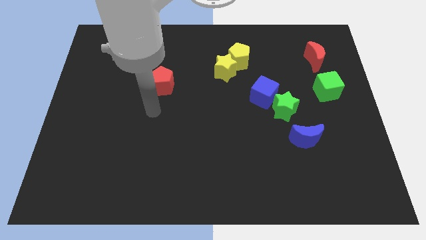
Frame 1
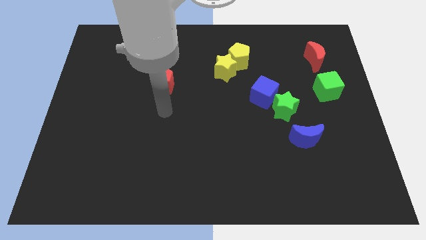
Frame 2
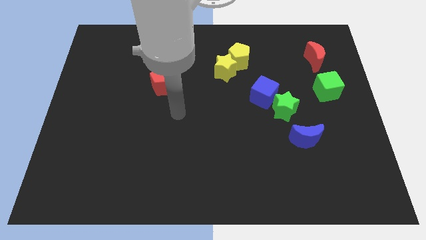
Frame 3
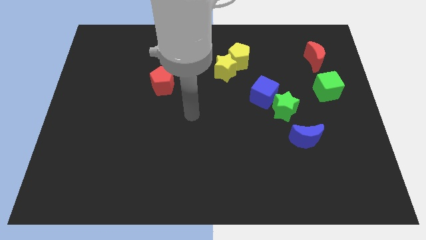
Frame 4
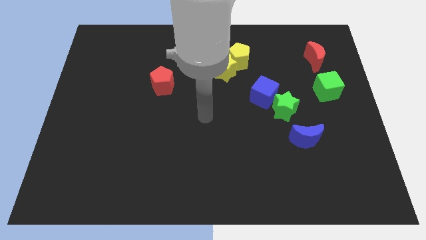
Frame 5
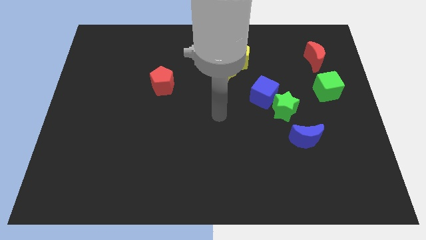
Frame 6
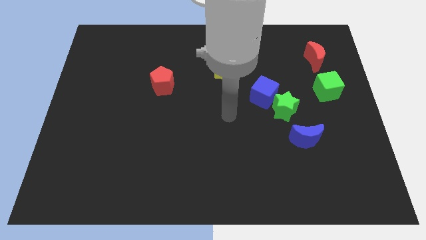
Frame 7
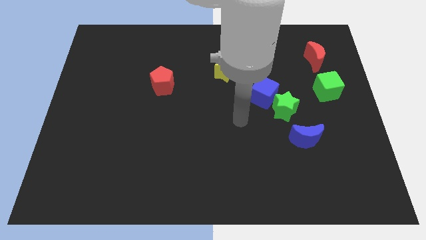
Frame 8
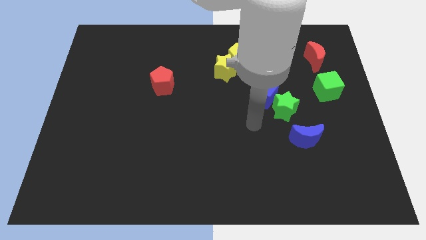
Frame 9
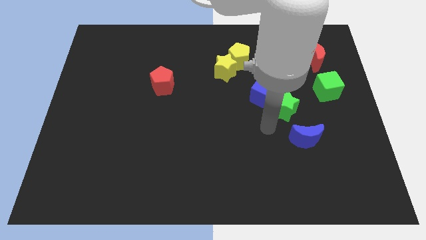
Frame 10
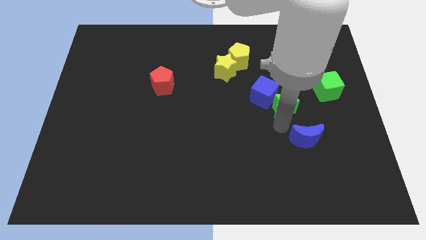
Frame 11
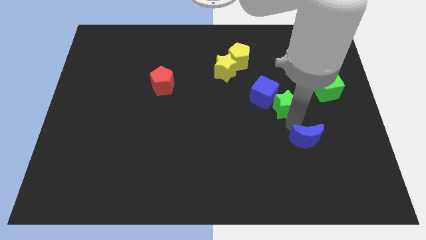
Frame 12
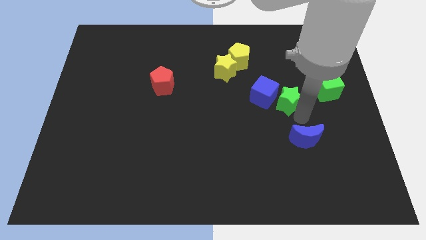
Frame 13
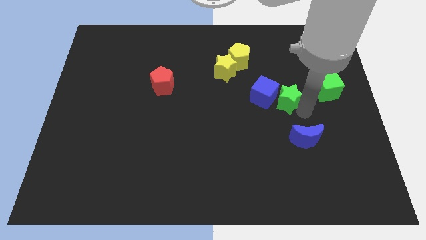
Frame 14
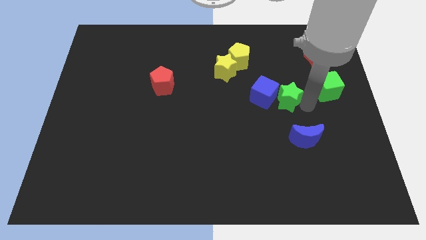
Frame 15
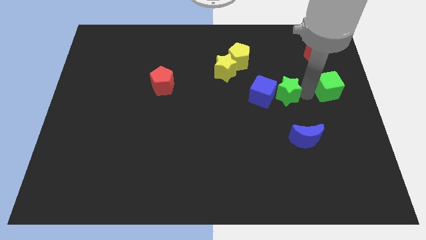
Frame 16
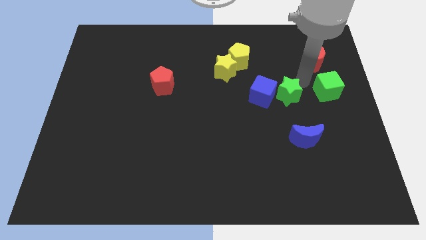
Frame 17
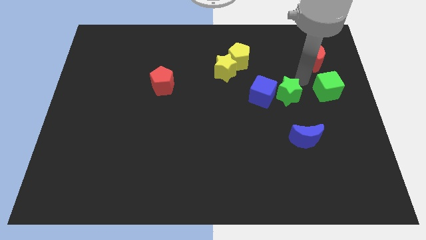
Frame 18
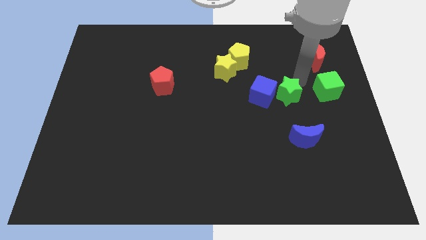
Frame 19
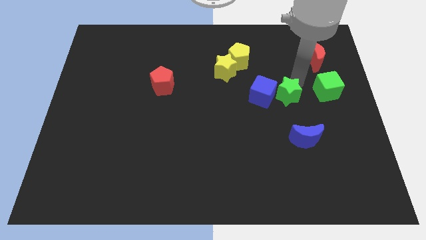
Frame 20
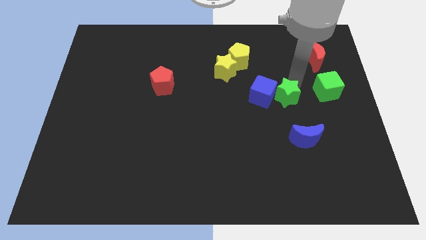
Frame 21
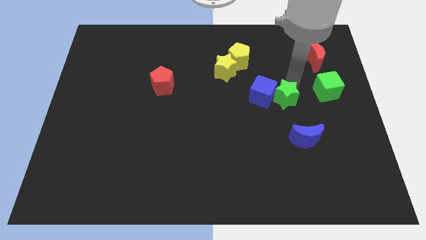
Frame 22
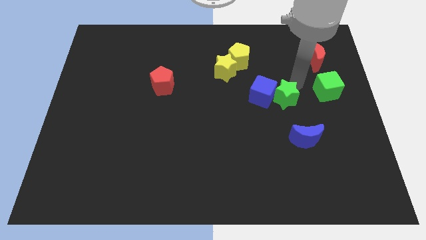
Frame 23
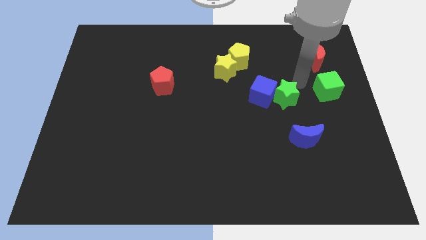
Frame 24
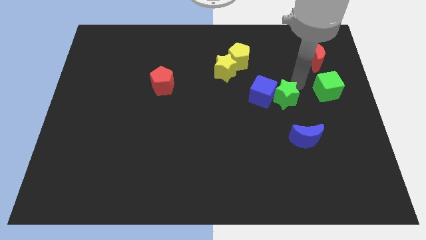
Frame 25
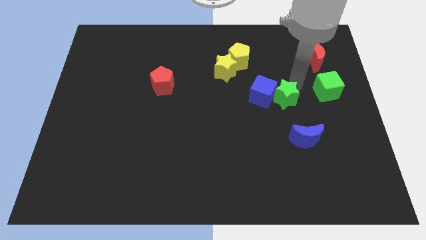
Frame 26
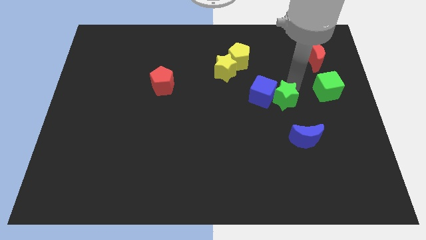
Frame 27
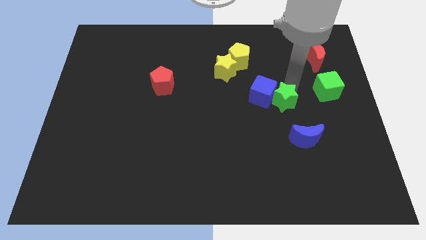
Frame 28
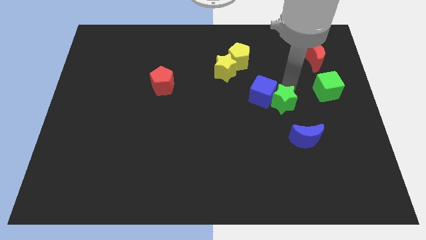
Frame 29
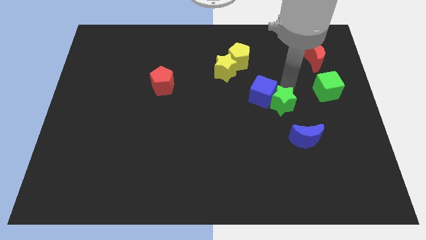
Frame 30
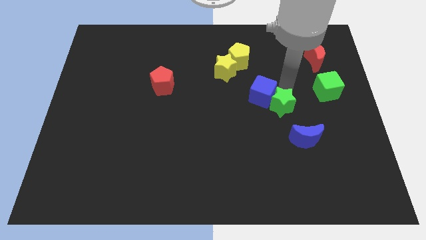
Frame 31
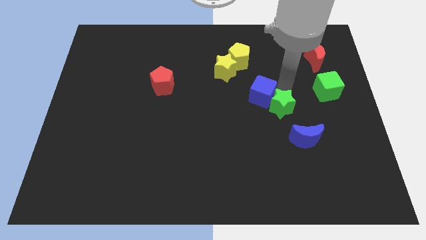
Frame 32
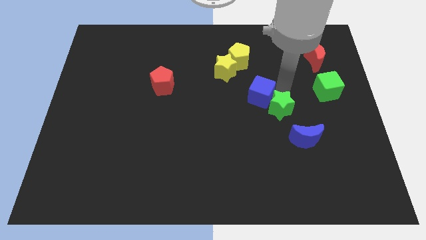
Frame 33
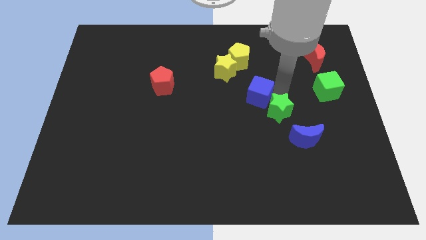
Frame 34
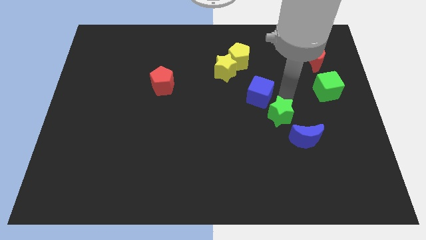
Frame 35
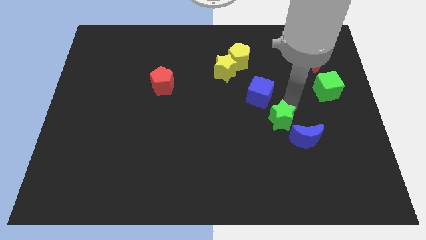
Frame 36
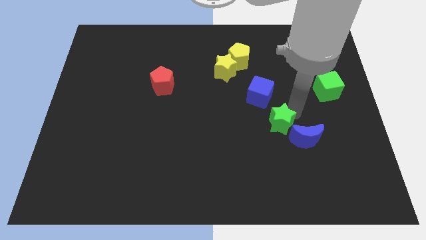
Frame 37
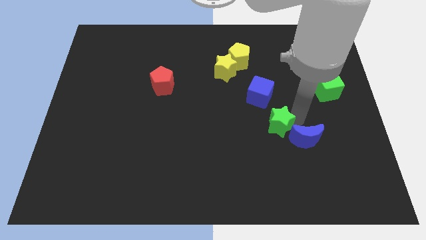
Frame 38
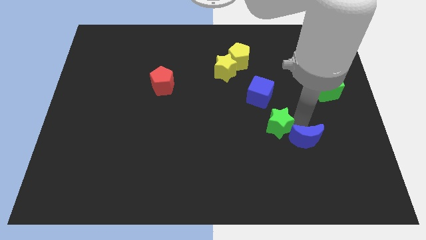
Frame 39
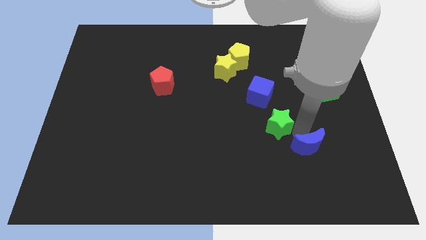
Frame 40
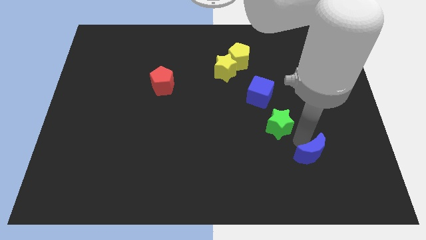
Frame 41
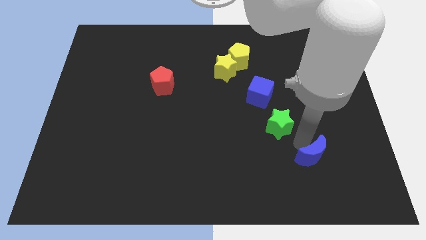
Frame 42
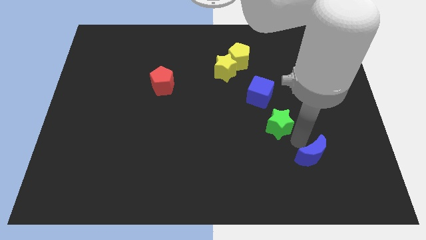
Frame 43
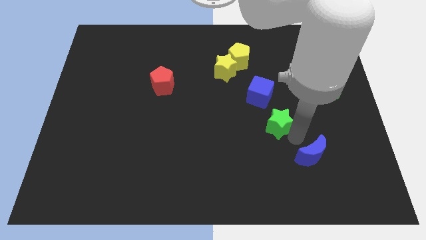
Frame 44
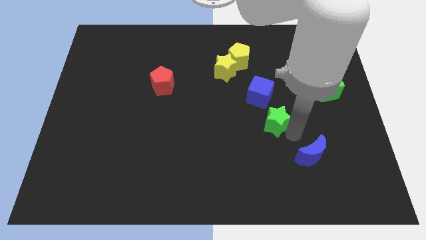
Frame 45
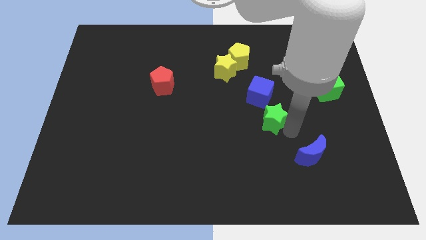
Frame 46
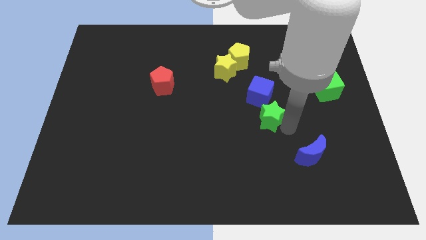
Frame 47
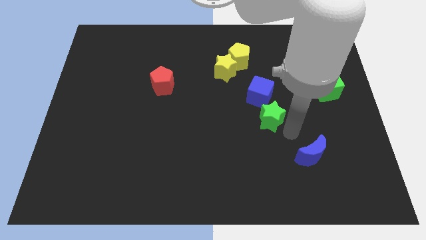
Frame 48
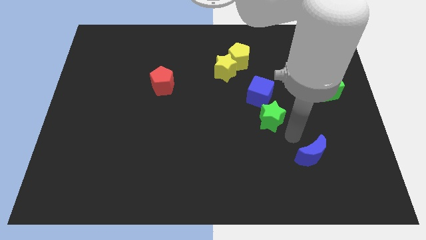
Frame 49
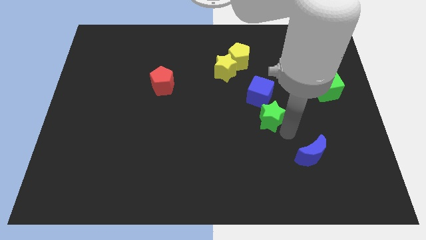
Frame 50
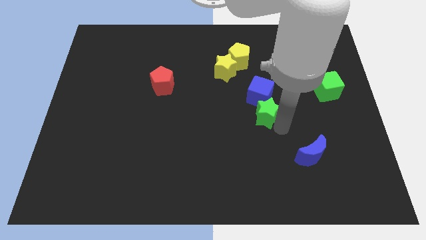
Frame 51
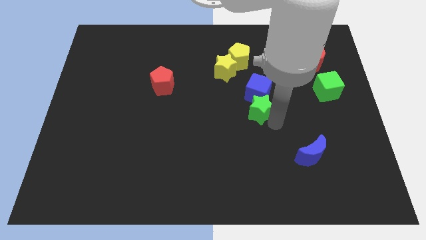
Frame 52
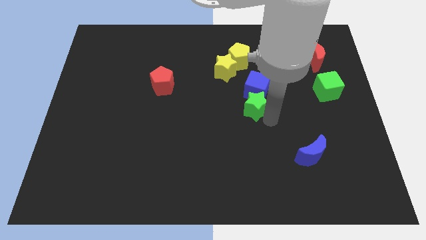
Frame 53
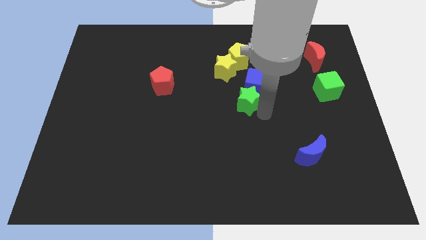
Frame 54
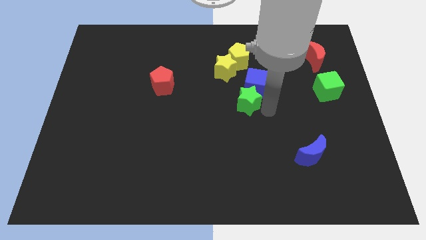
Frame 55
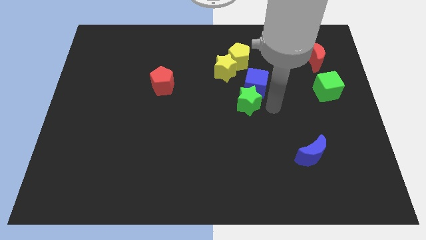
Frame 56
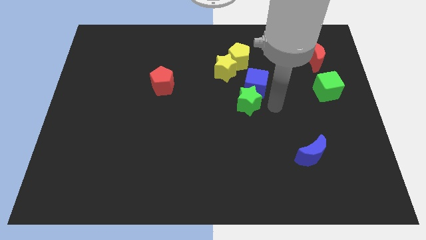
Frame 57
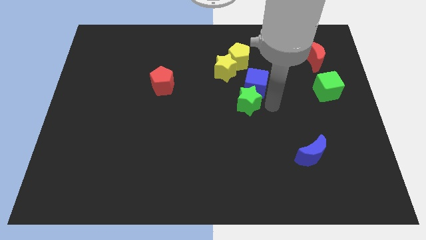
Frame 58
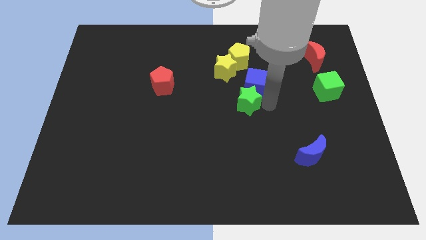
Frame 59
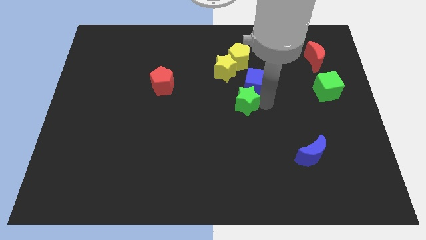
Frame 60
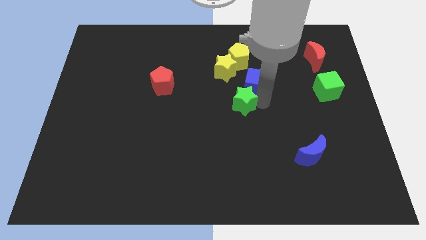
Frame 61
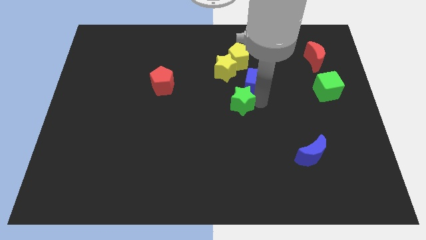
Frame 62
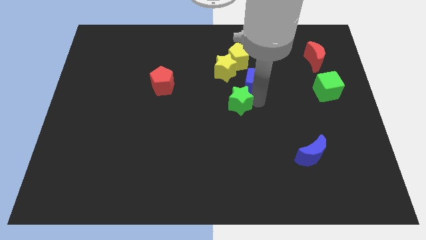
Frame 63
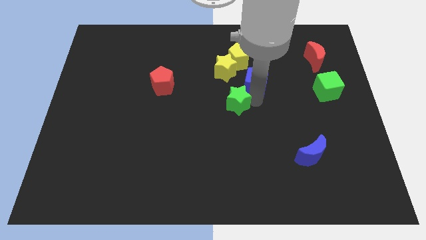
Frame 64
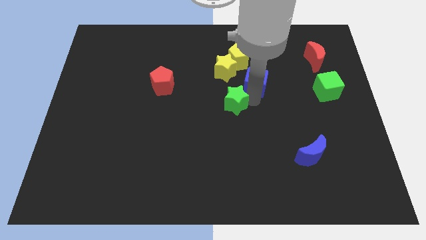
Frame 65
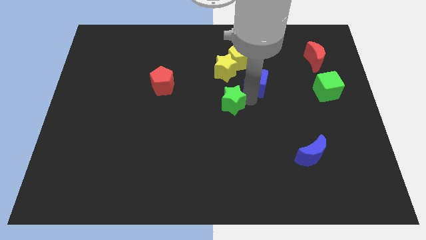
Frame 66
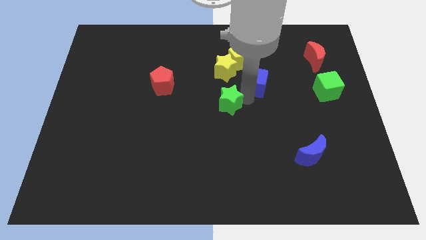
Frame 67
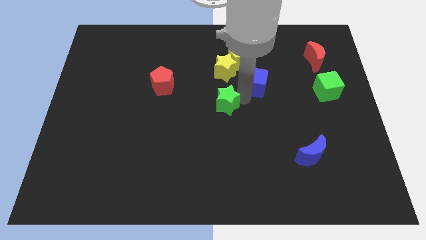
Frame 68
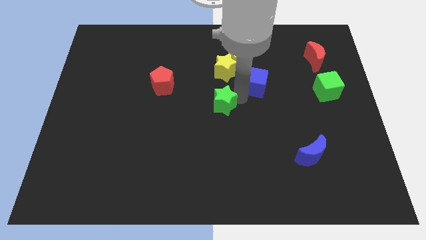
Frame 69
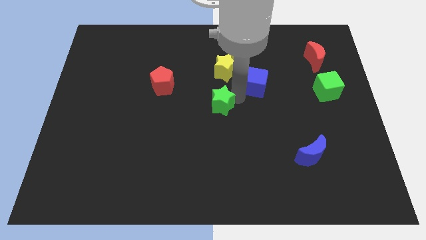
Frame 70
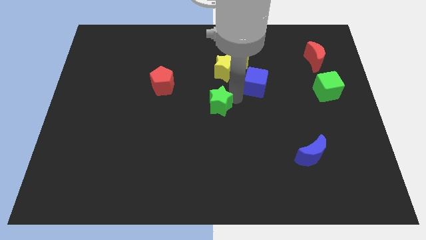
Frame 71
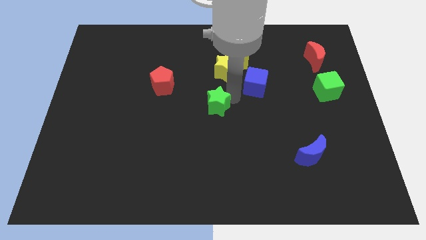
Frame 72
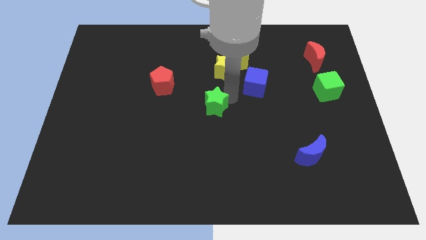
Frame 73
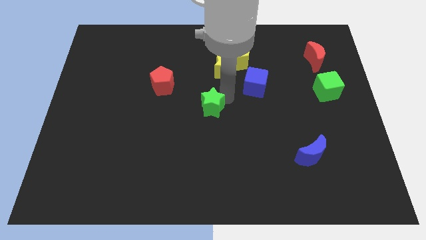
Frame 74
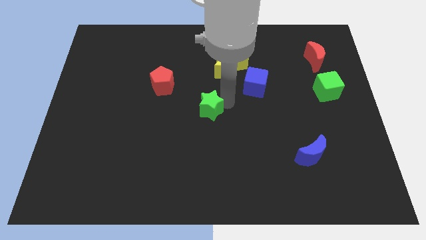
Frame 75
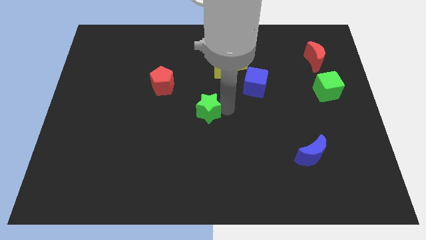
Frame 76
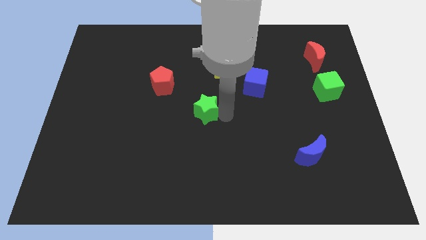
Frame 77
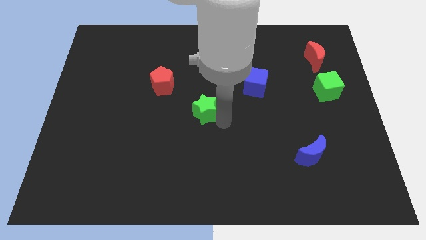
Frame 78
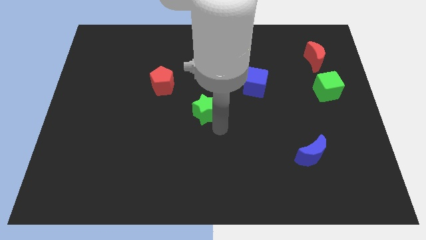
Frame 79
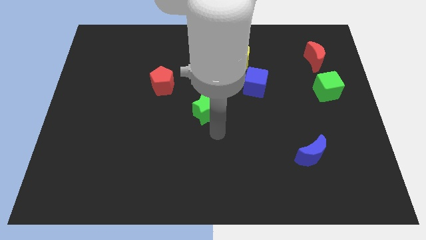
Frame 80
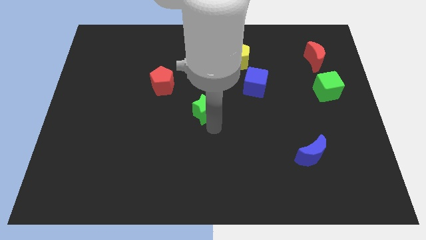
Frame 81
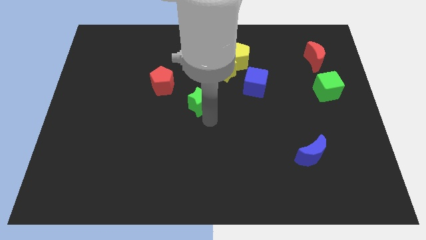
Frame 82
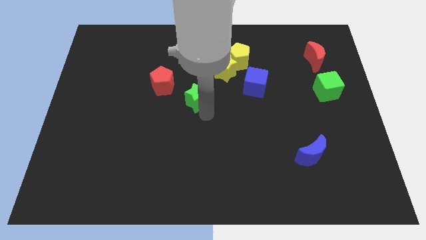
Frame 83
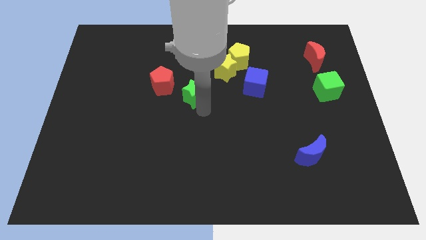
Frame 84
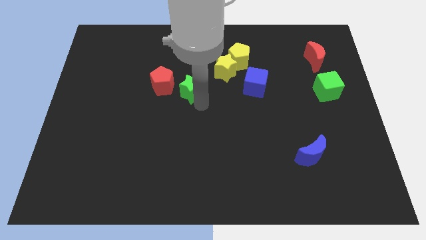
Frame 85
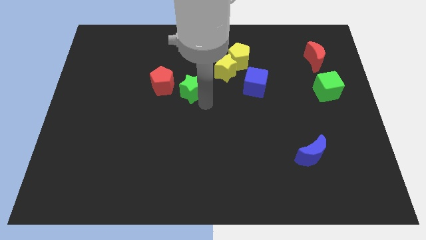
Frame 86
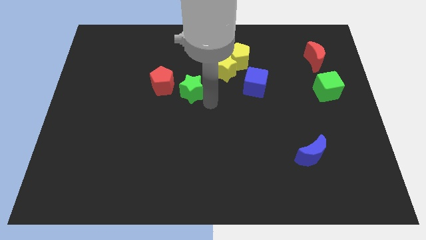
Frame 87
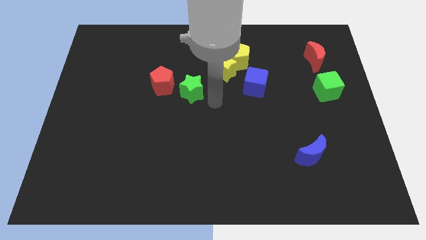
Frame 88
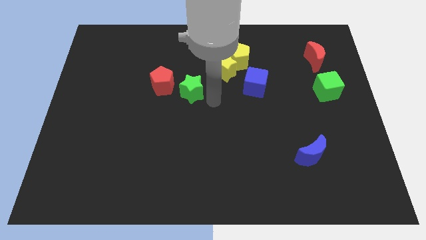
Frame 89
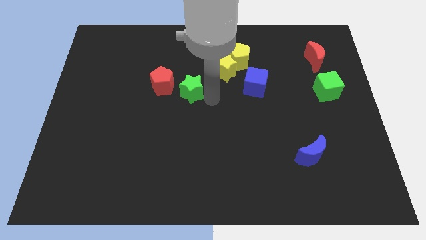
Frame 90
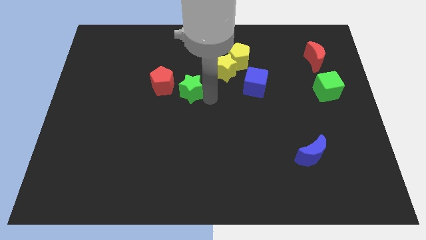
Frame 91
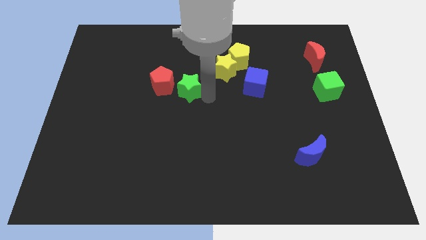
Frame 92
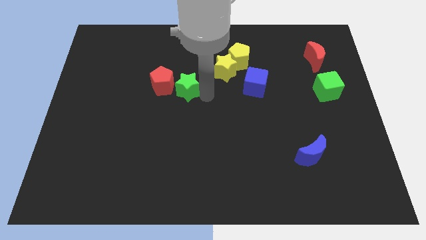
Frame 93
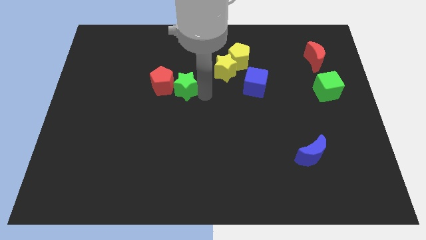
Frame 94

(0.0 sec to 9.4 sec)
move the green star close to the red pentagon
